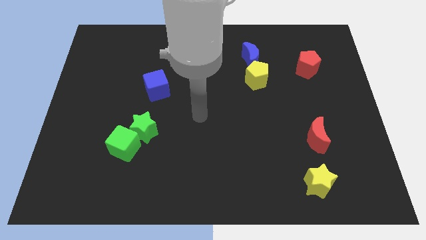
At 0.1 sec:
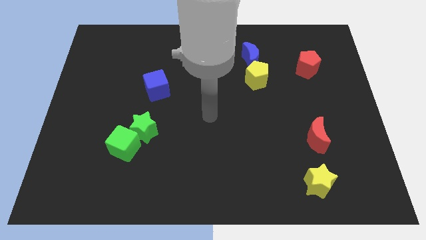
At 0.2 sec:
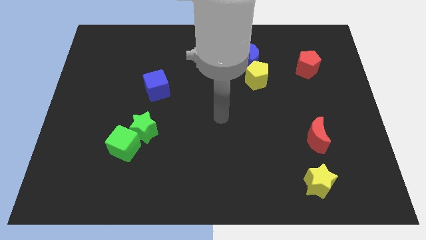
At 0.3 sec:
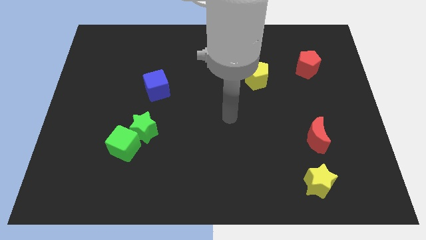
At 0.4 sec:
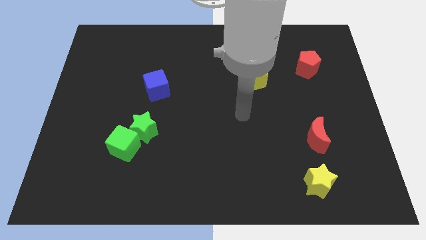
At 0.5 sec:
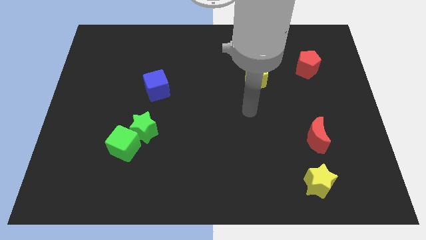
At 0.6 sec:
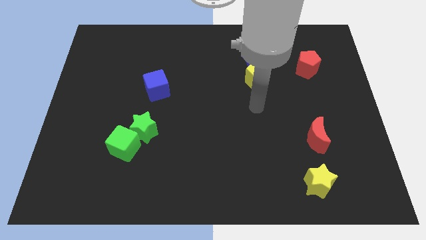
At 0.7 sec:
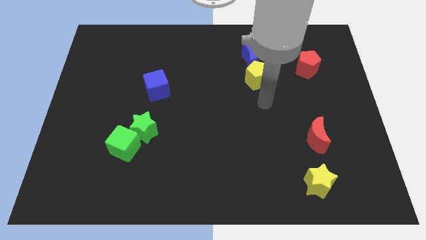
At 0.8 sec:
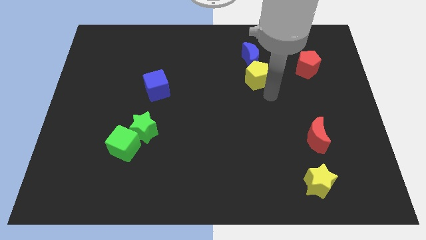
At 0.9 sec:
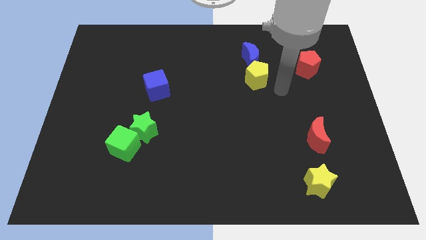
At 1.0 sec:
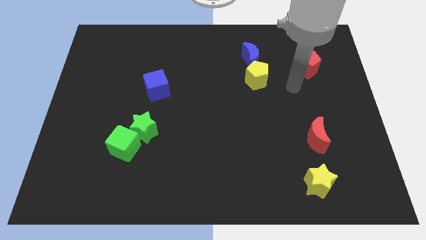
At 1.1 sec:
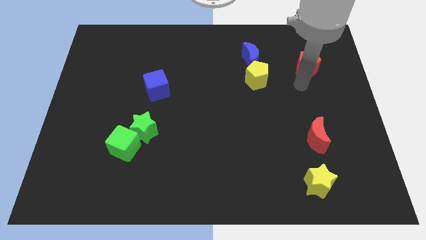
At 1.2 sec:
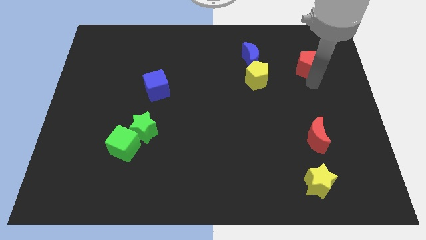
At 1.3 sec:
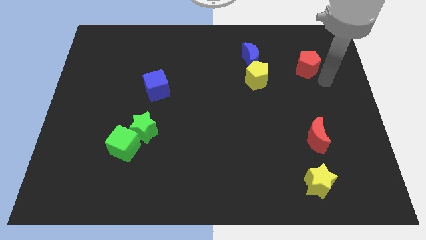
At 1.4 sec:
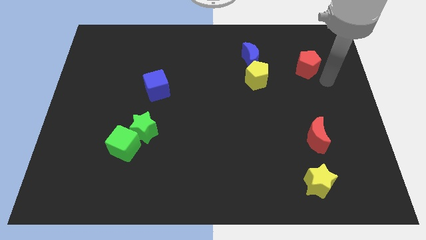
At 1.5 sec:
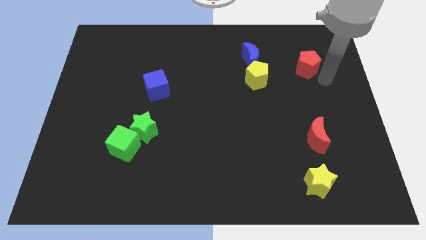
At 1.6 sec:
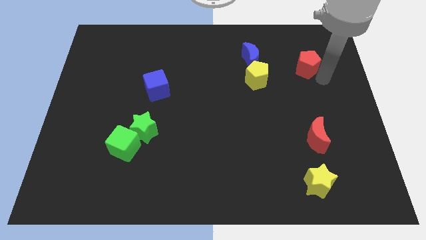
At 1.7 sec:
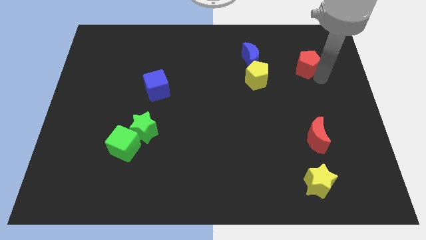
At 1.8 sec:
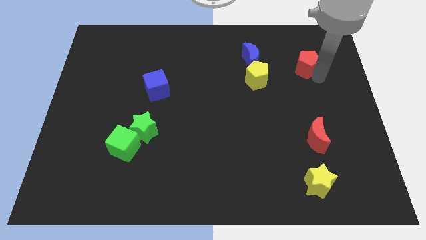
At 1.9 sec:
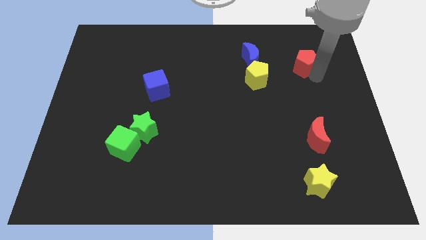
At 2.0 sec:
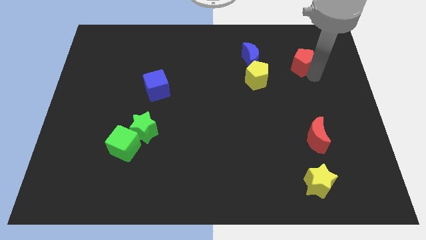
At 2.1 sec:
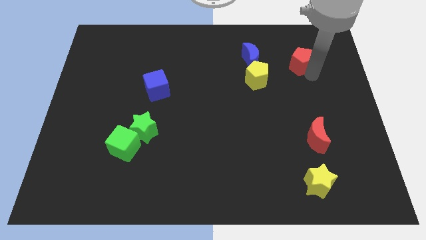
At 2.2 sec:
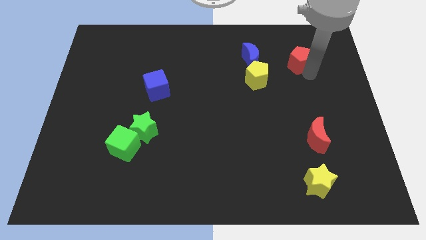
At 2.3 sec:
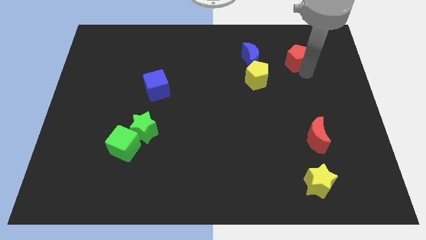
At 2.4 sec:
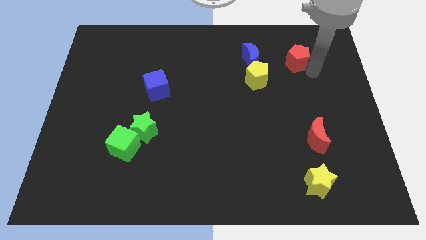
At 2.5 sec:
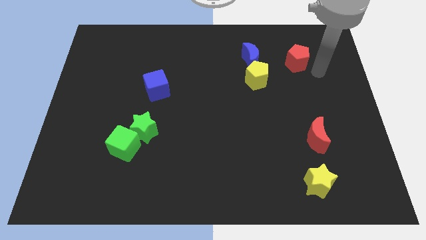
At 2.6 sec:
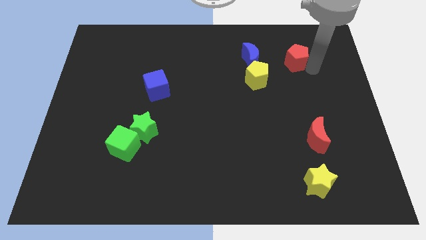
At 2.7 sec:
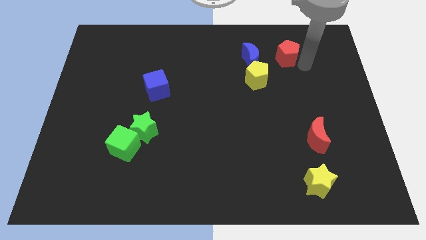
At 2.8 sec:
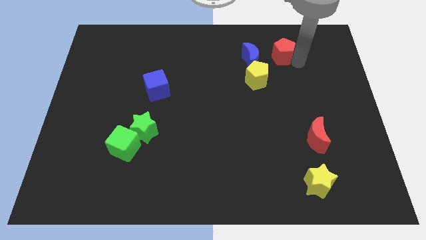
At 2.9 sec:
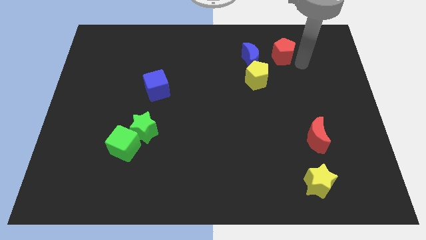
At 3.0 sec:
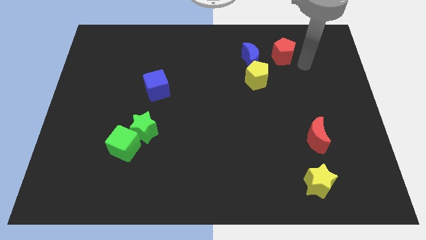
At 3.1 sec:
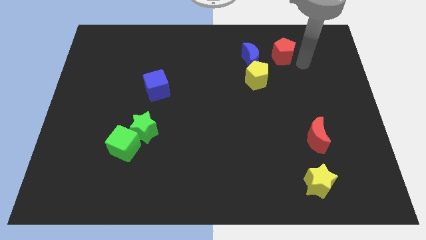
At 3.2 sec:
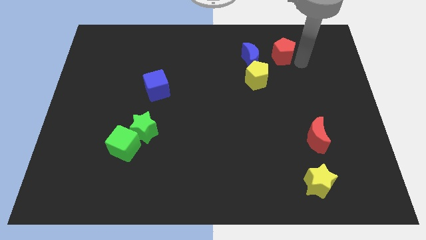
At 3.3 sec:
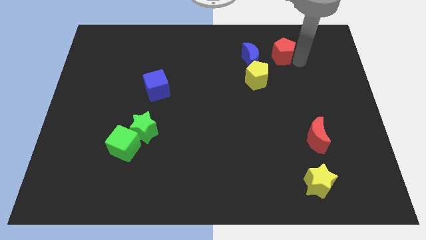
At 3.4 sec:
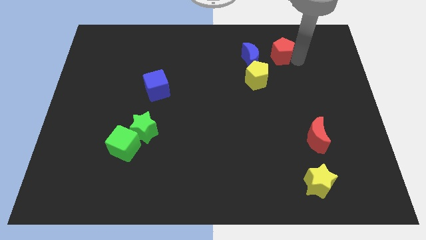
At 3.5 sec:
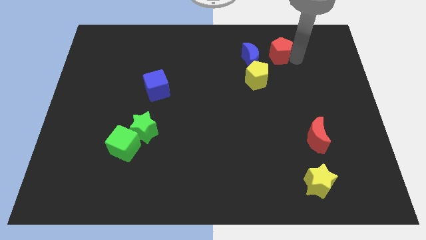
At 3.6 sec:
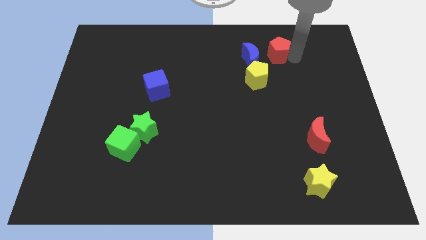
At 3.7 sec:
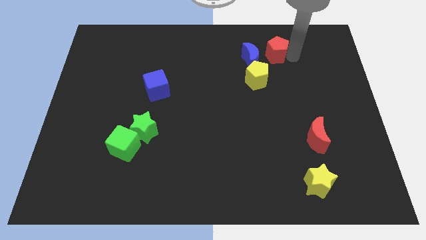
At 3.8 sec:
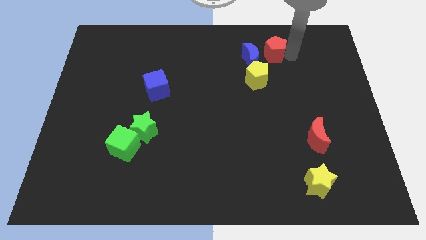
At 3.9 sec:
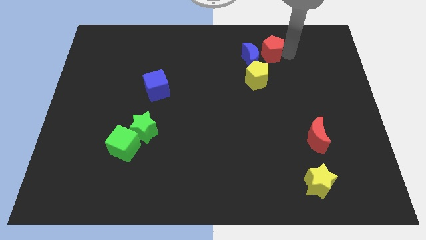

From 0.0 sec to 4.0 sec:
push the red pentagon a little bit left

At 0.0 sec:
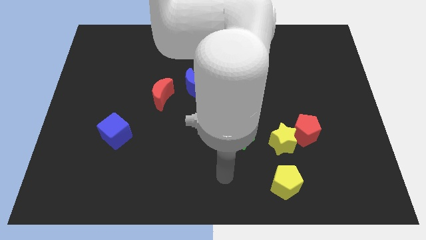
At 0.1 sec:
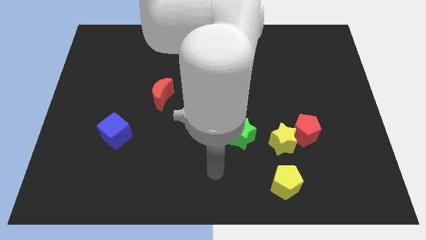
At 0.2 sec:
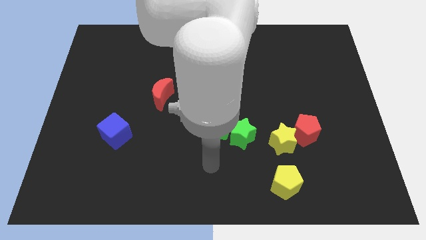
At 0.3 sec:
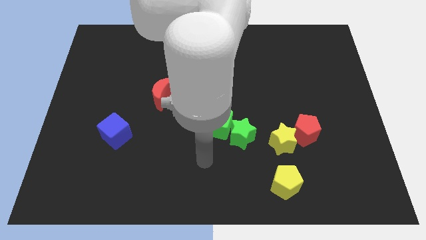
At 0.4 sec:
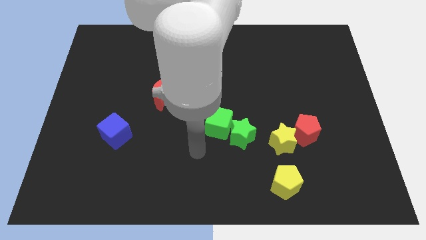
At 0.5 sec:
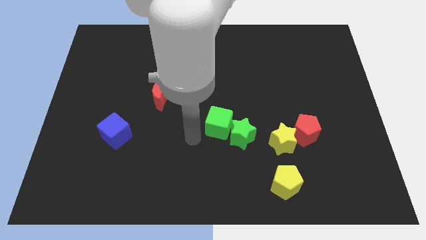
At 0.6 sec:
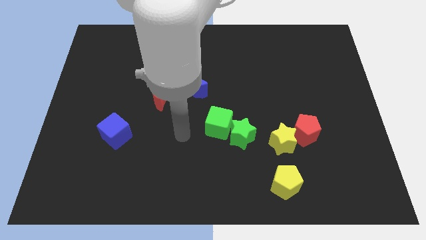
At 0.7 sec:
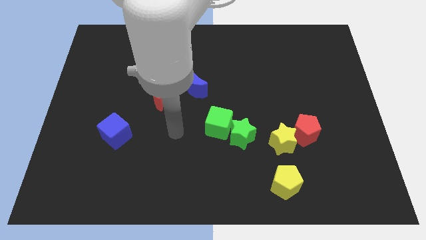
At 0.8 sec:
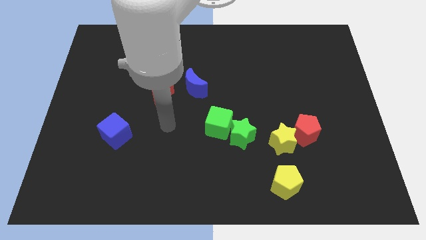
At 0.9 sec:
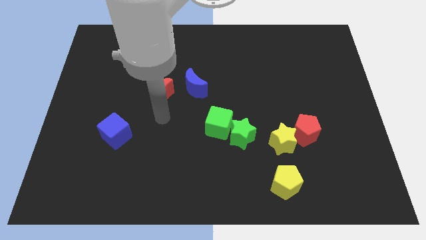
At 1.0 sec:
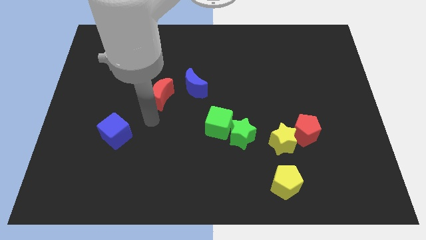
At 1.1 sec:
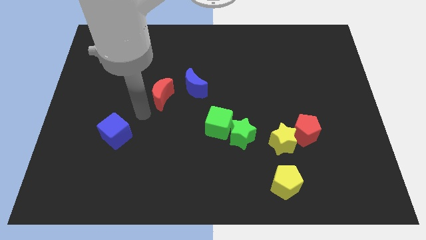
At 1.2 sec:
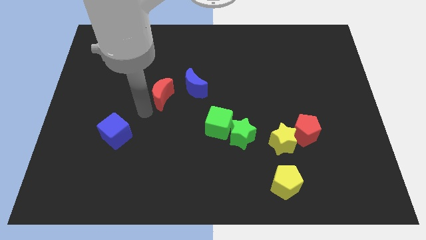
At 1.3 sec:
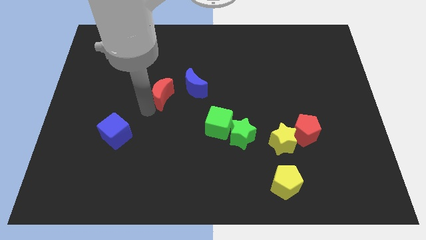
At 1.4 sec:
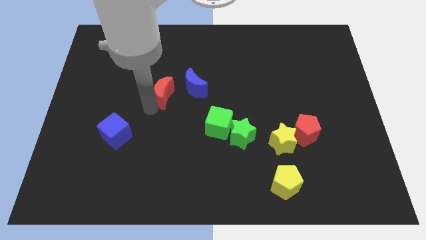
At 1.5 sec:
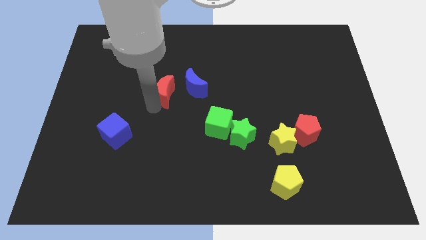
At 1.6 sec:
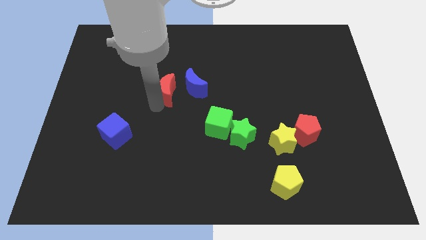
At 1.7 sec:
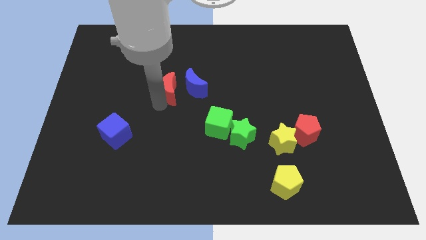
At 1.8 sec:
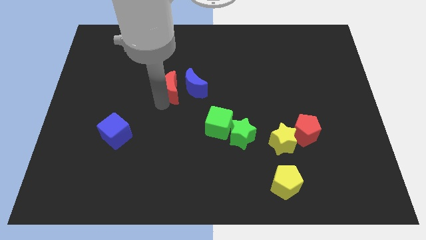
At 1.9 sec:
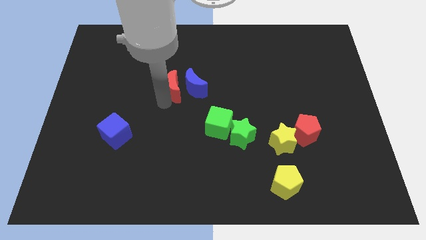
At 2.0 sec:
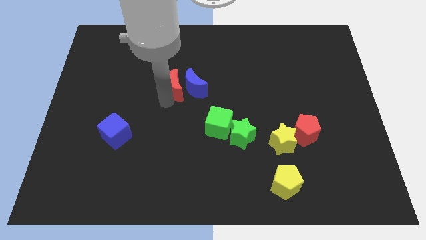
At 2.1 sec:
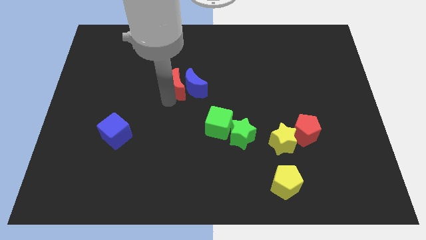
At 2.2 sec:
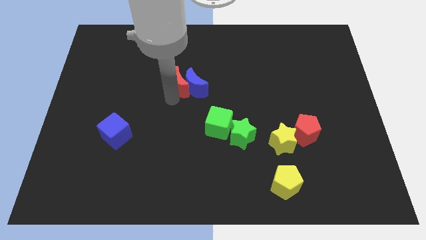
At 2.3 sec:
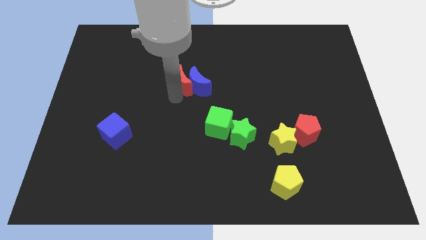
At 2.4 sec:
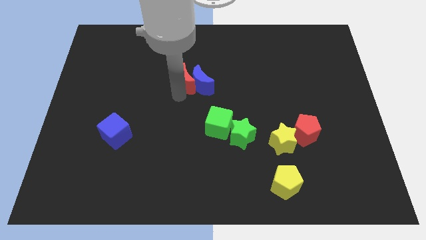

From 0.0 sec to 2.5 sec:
slide the red moon a little bit diagonally up and right

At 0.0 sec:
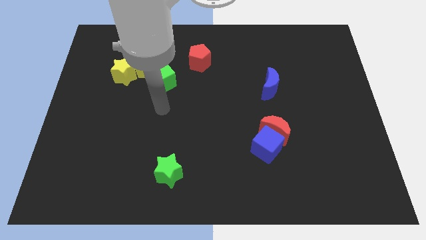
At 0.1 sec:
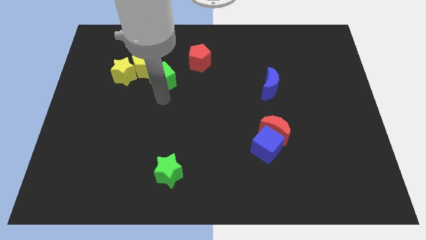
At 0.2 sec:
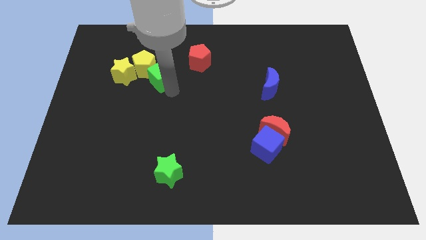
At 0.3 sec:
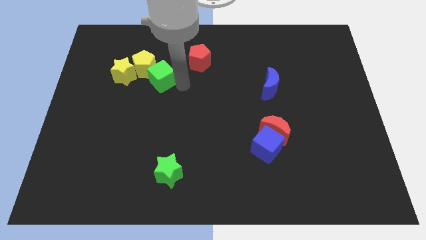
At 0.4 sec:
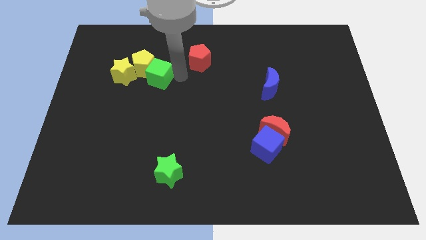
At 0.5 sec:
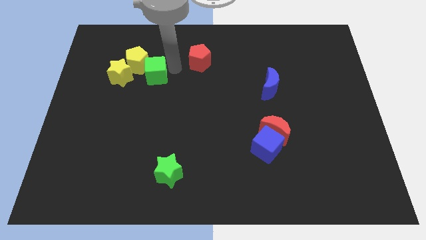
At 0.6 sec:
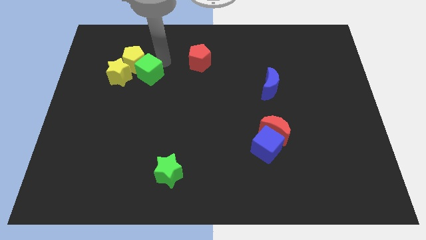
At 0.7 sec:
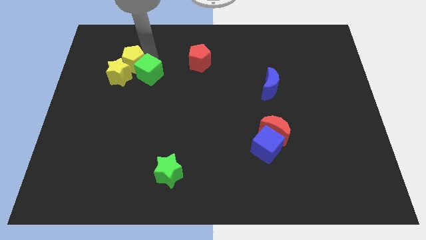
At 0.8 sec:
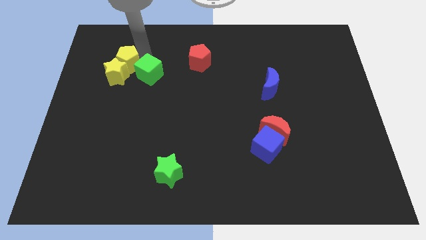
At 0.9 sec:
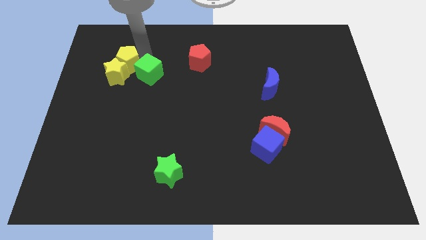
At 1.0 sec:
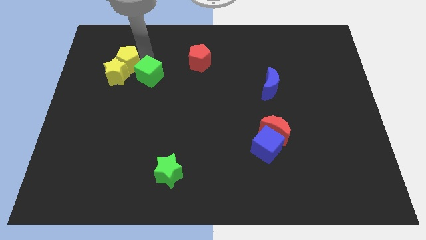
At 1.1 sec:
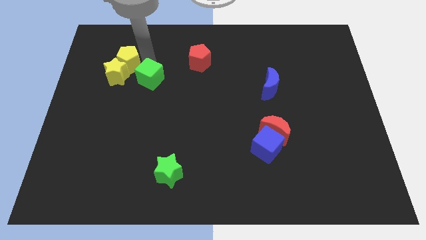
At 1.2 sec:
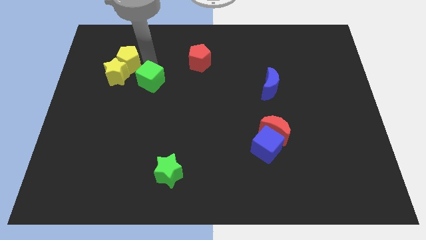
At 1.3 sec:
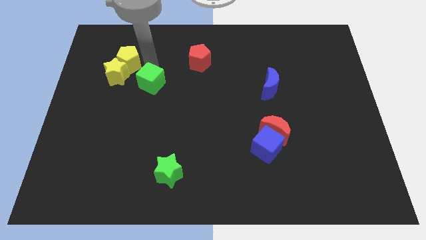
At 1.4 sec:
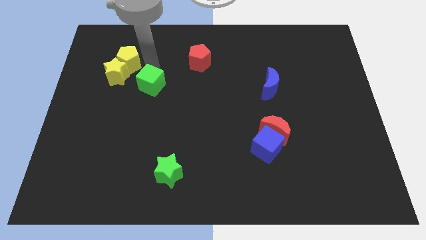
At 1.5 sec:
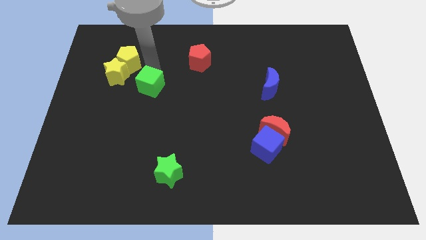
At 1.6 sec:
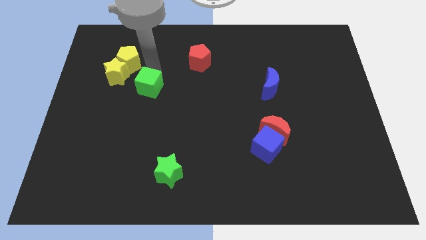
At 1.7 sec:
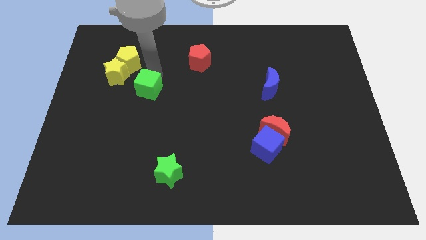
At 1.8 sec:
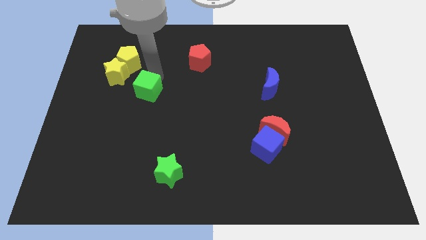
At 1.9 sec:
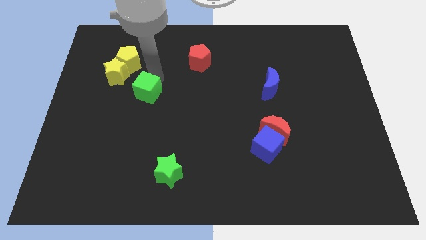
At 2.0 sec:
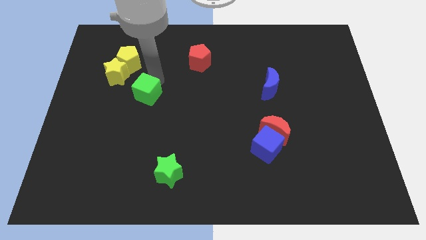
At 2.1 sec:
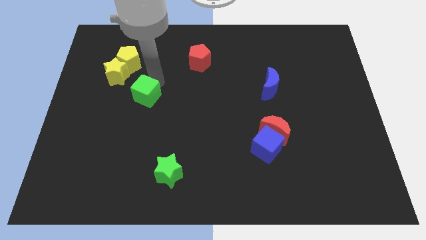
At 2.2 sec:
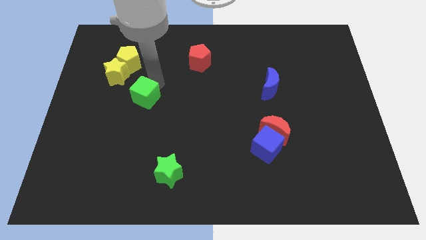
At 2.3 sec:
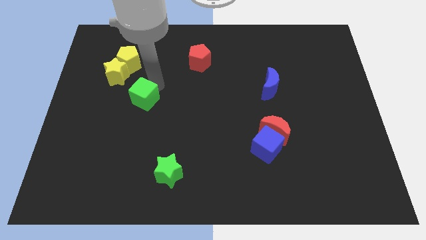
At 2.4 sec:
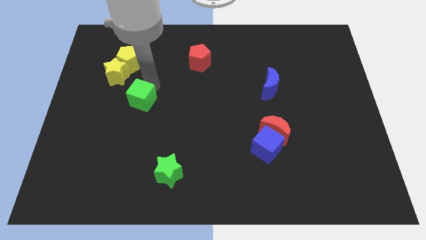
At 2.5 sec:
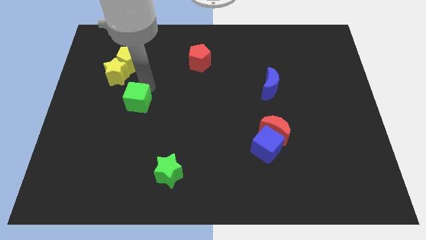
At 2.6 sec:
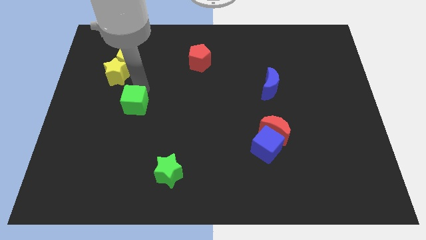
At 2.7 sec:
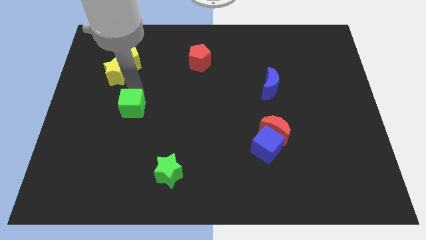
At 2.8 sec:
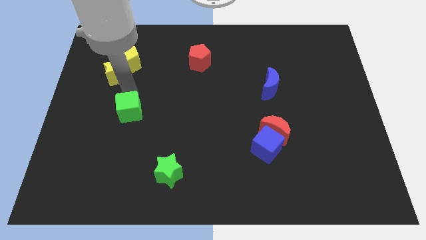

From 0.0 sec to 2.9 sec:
push the green cube somewhat down
